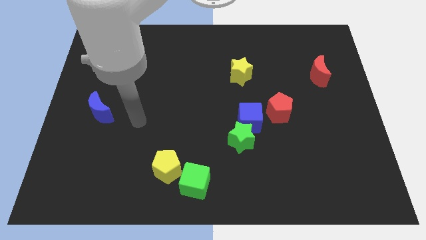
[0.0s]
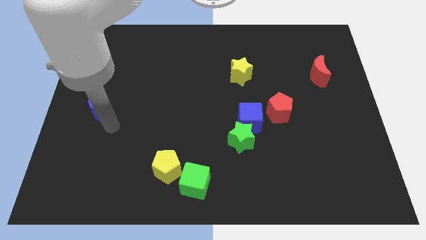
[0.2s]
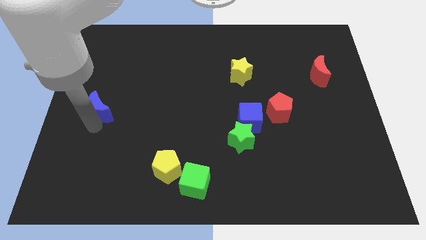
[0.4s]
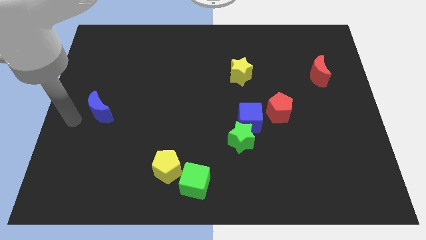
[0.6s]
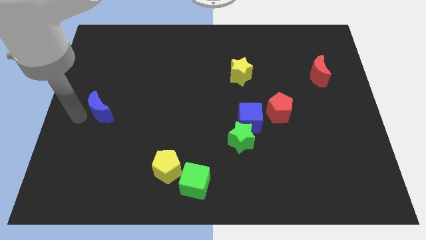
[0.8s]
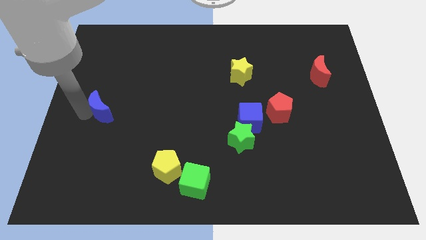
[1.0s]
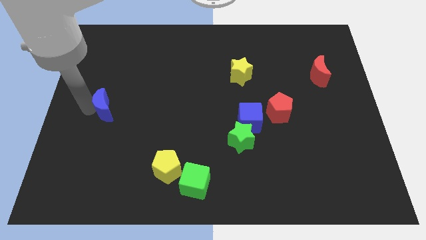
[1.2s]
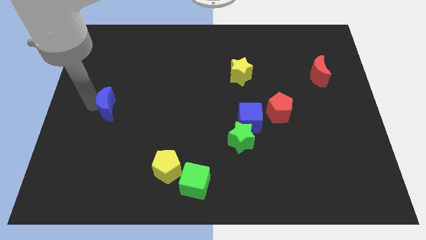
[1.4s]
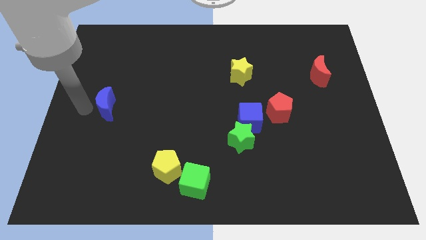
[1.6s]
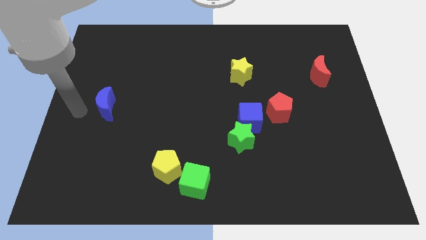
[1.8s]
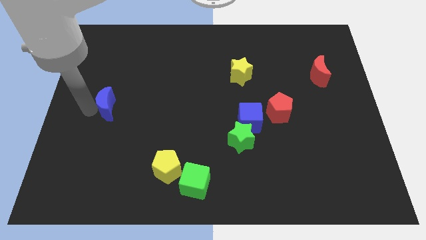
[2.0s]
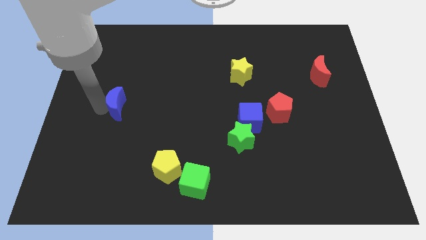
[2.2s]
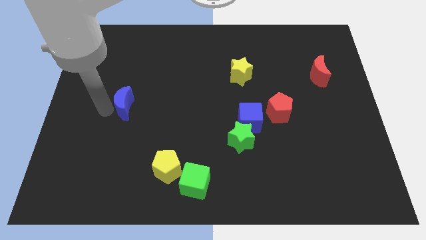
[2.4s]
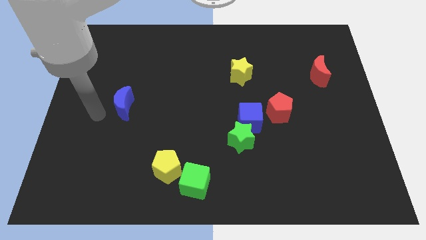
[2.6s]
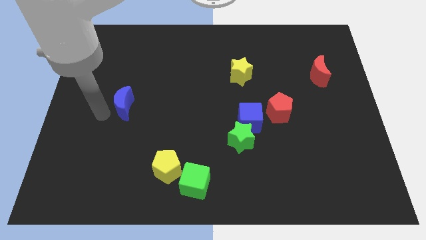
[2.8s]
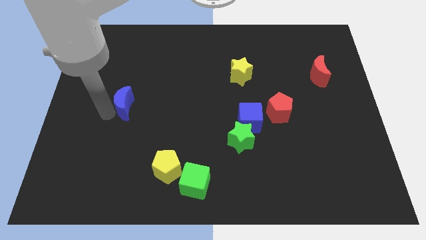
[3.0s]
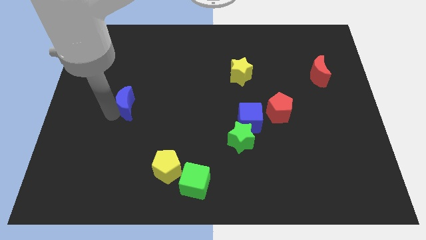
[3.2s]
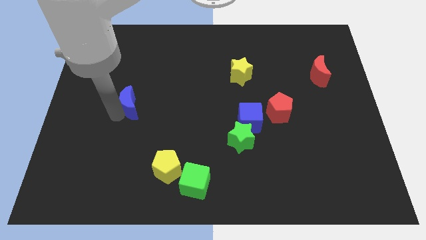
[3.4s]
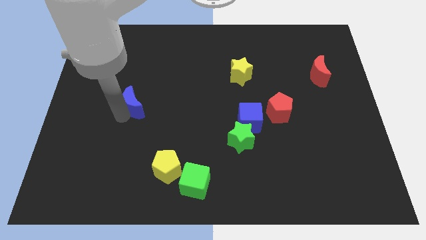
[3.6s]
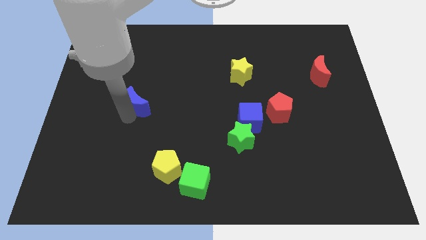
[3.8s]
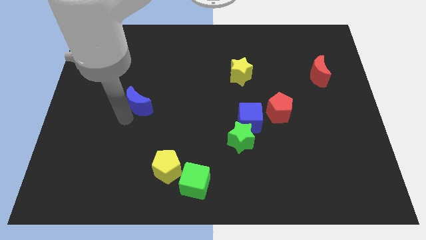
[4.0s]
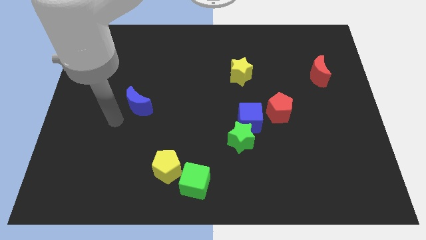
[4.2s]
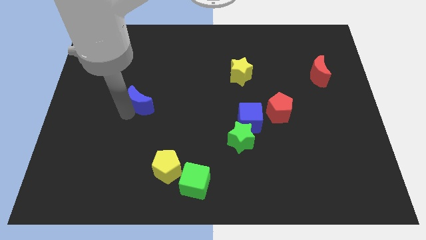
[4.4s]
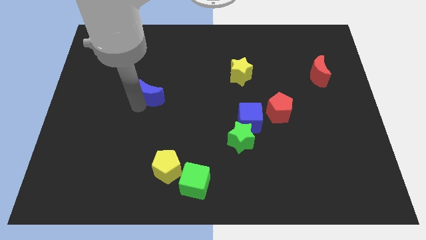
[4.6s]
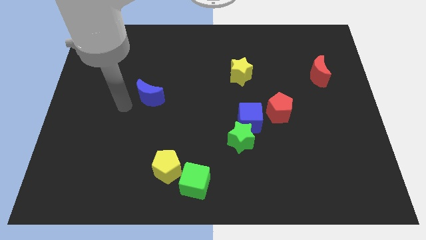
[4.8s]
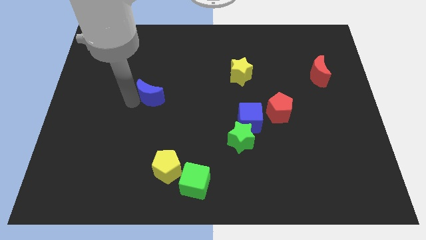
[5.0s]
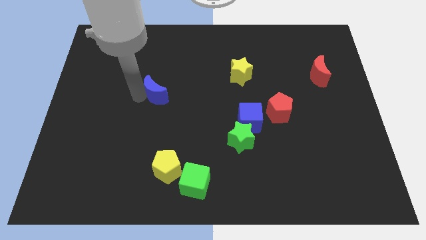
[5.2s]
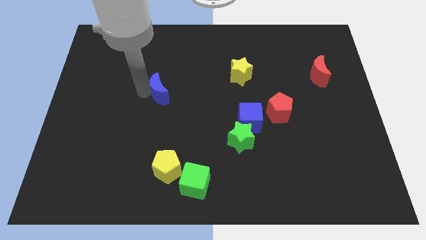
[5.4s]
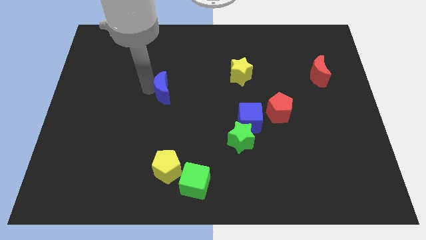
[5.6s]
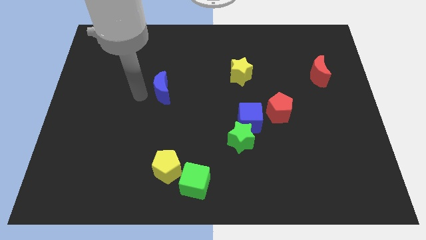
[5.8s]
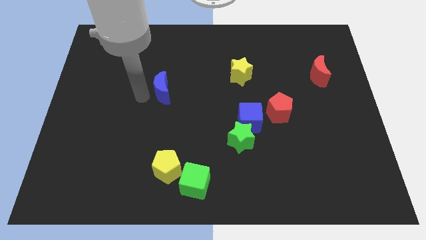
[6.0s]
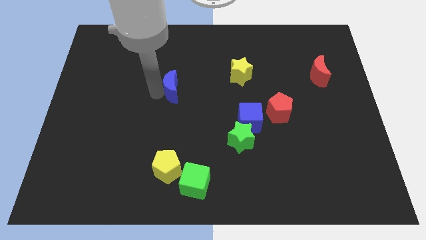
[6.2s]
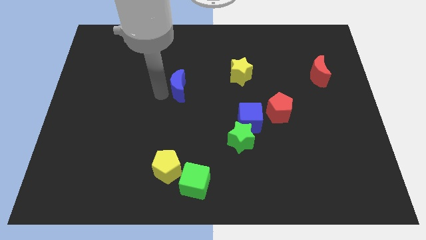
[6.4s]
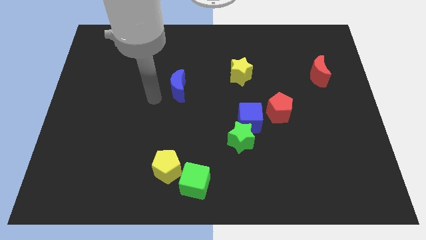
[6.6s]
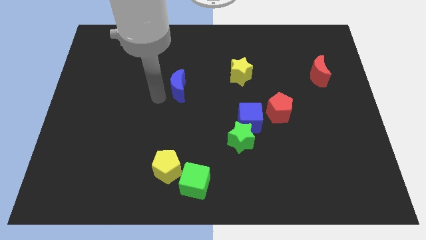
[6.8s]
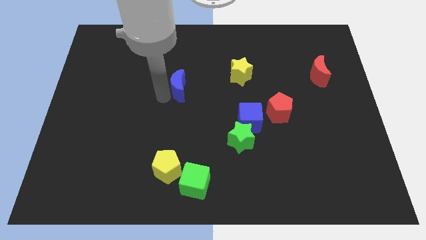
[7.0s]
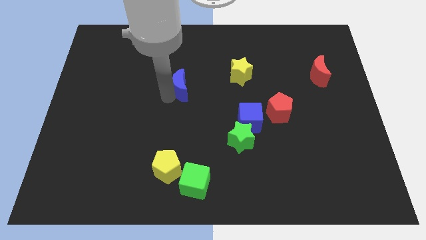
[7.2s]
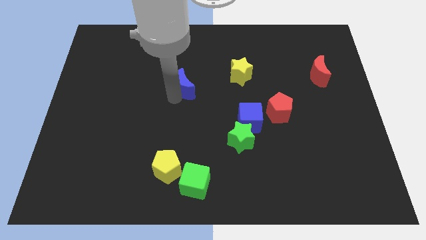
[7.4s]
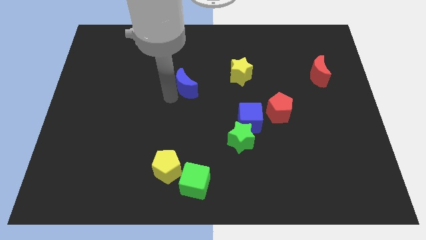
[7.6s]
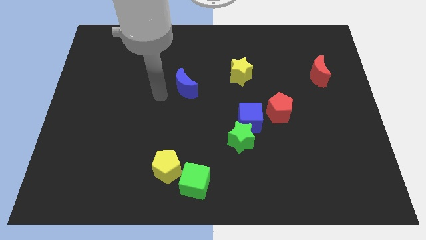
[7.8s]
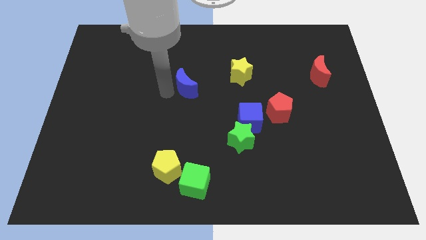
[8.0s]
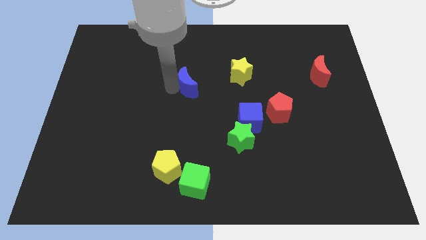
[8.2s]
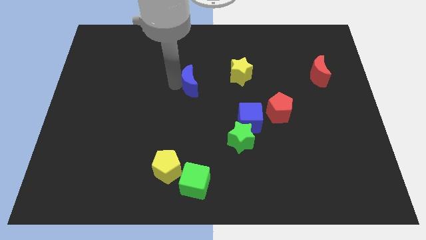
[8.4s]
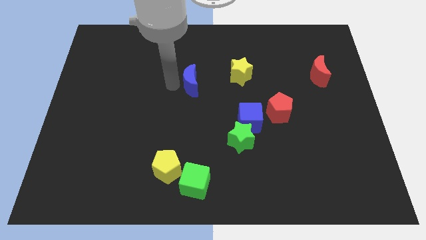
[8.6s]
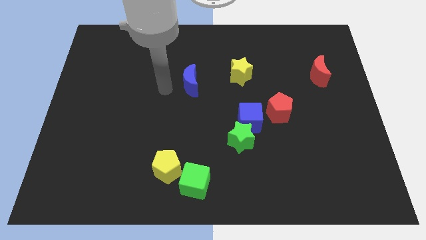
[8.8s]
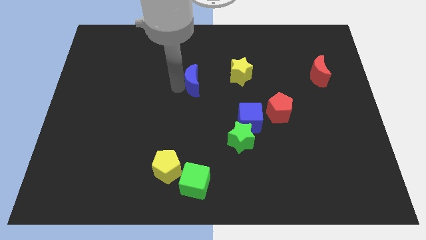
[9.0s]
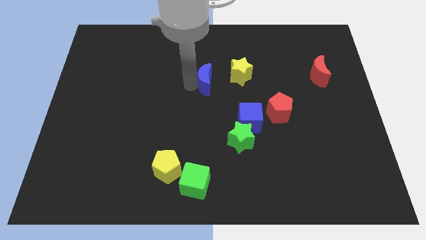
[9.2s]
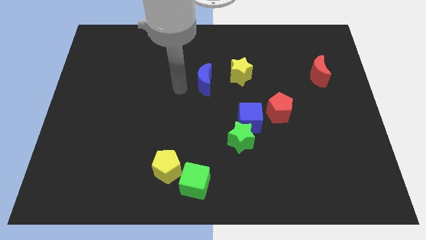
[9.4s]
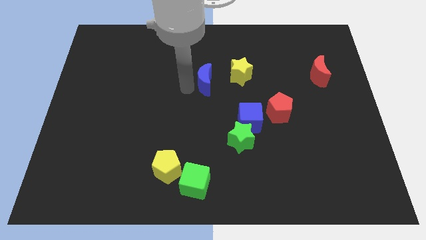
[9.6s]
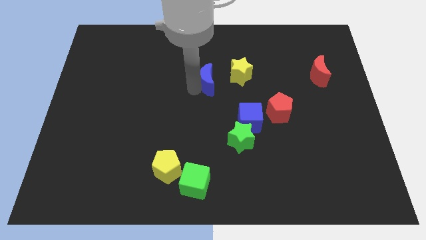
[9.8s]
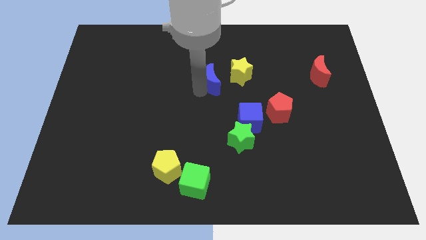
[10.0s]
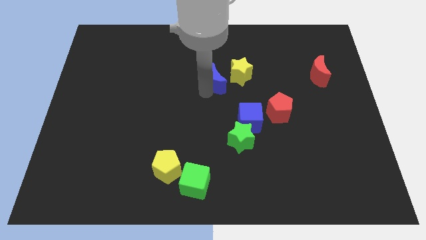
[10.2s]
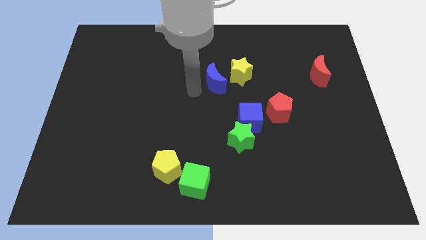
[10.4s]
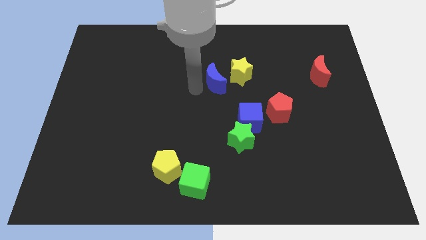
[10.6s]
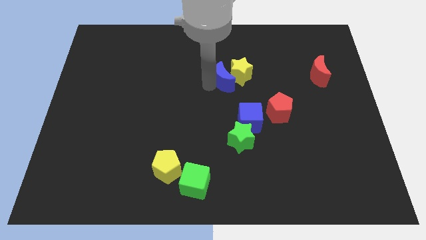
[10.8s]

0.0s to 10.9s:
move the blue moon towards the yellow star

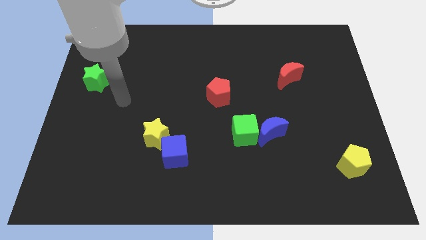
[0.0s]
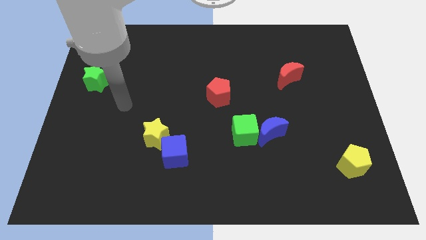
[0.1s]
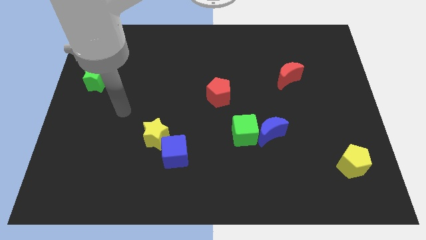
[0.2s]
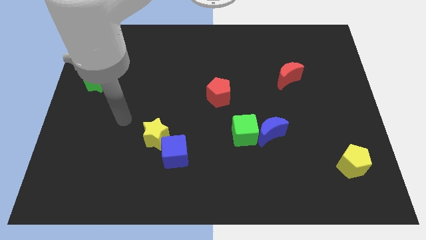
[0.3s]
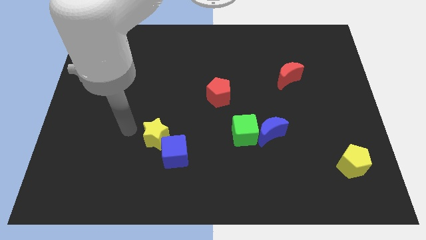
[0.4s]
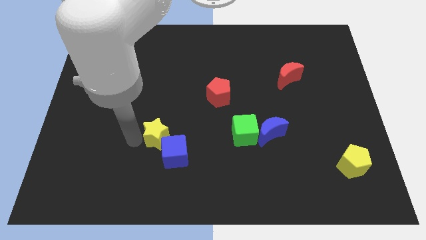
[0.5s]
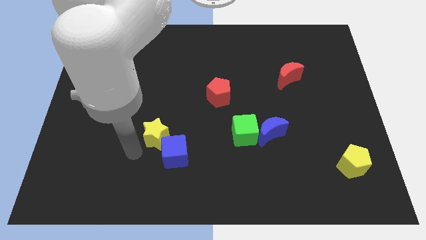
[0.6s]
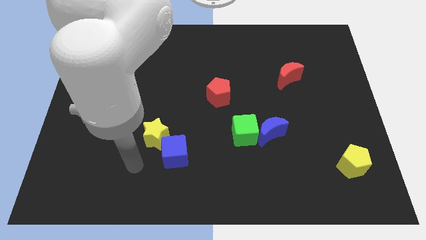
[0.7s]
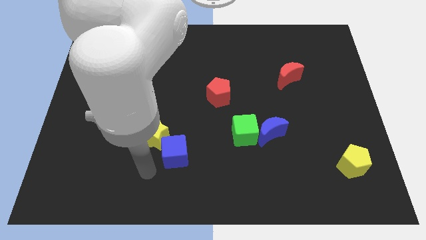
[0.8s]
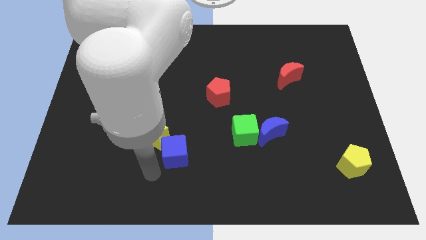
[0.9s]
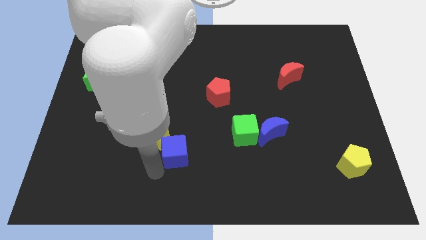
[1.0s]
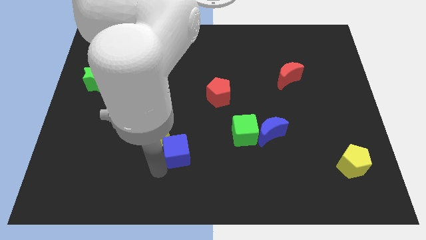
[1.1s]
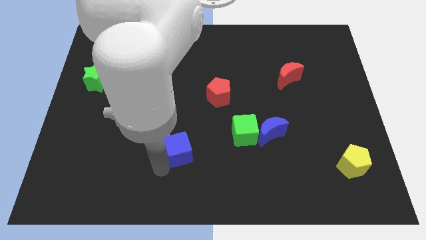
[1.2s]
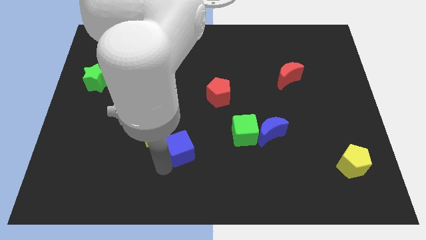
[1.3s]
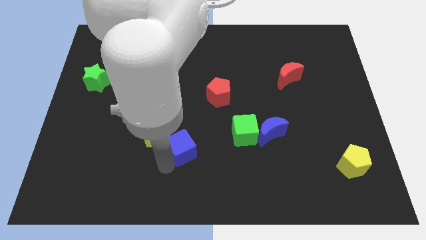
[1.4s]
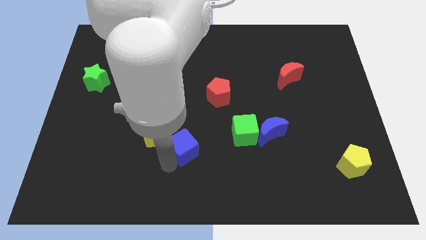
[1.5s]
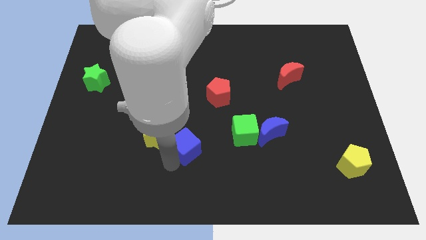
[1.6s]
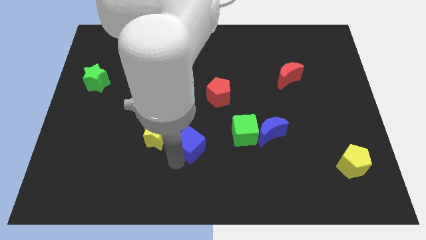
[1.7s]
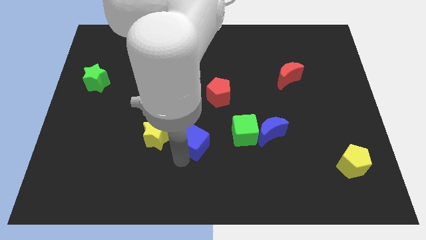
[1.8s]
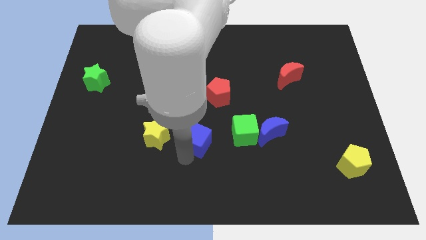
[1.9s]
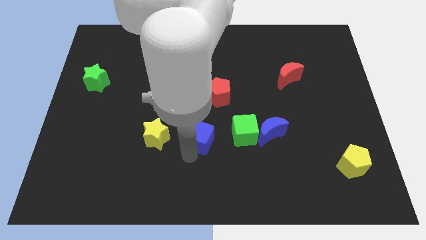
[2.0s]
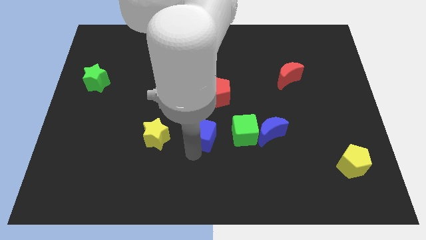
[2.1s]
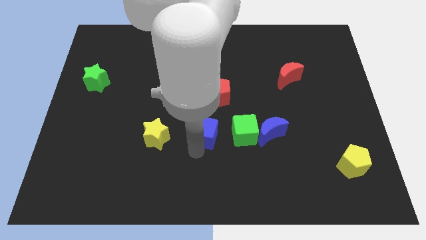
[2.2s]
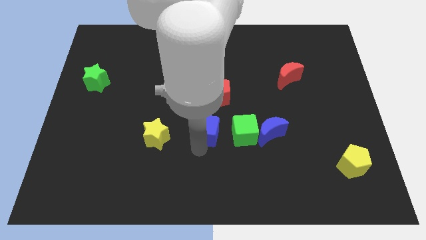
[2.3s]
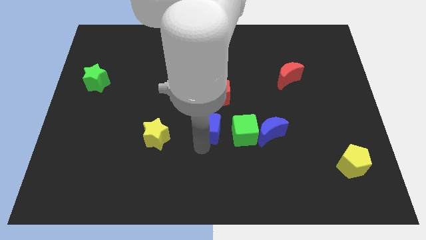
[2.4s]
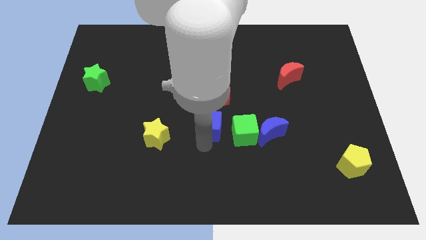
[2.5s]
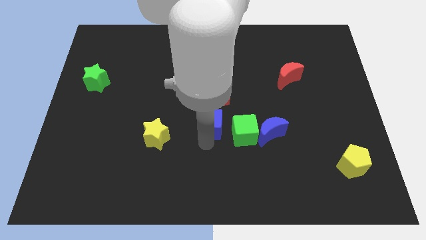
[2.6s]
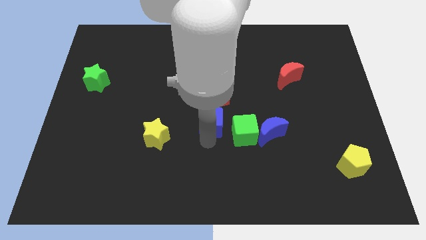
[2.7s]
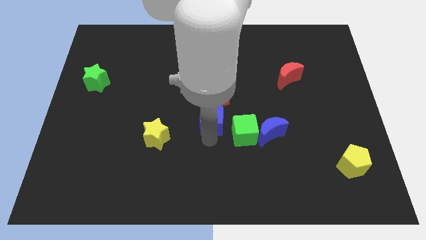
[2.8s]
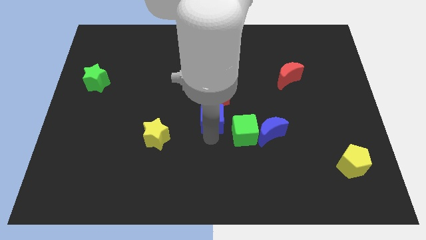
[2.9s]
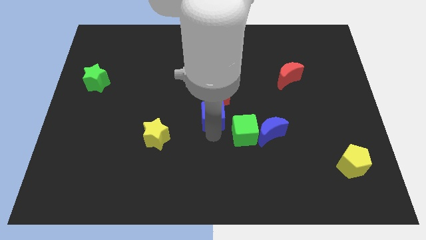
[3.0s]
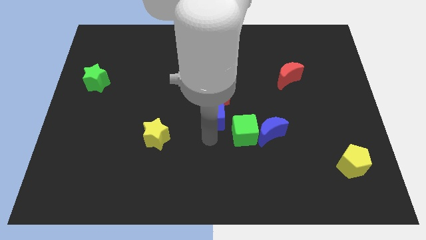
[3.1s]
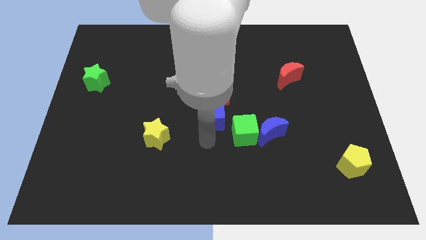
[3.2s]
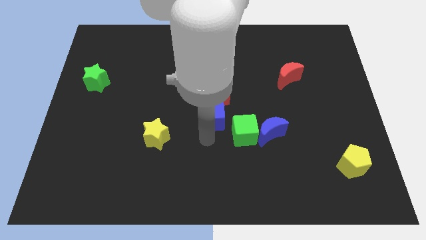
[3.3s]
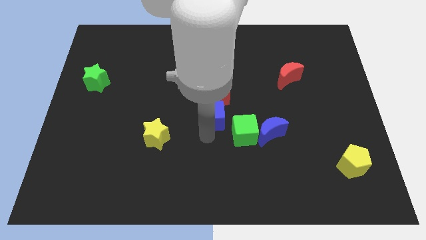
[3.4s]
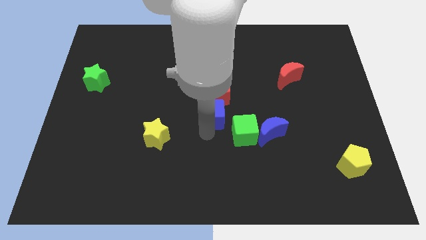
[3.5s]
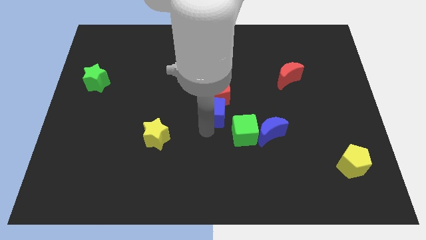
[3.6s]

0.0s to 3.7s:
put the blue cube to the red pentagon
